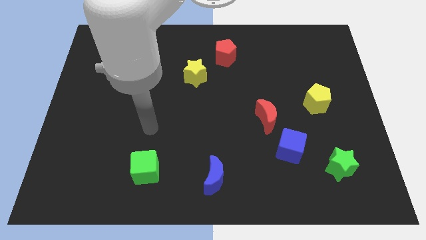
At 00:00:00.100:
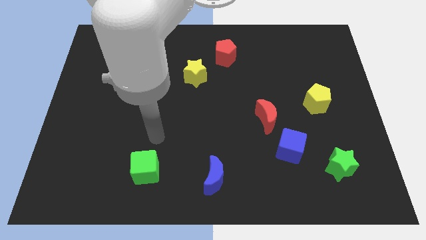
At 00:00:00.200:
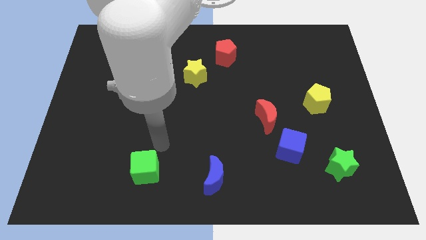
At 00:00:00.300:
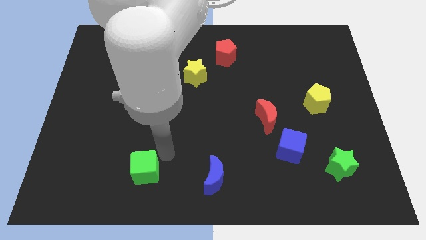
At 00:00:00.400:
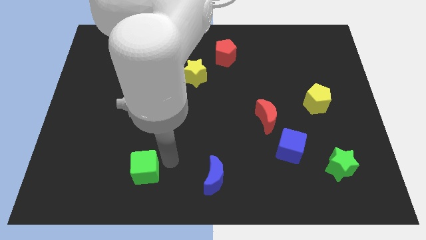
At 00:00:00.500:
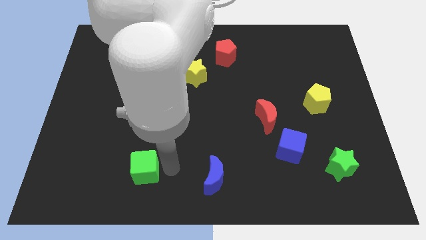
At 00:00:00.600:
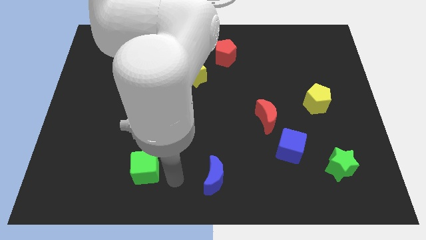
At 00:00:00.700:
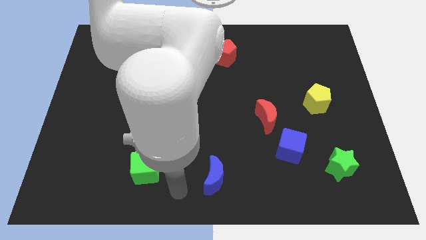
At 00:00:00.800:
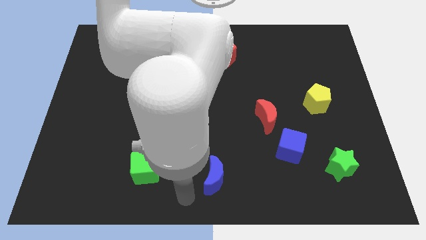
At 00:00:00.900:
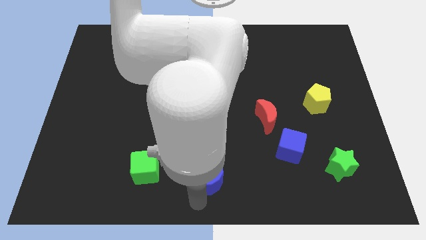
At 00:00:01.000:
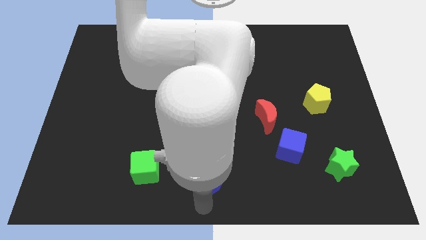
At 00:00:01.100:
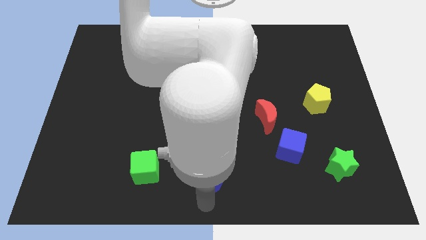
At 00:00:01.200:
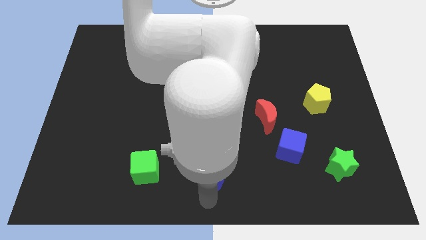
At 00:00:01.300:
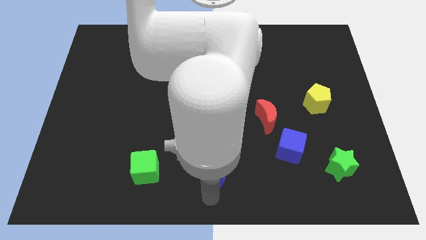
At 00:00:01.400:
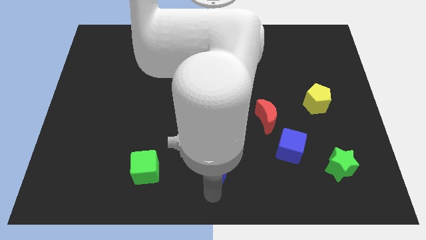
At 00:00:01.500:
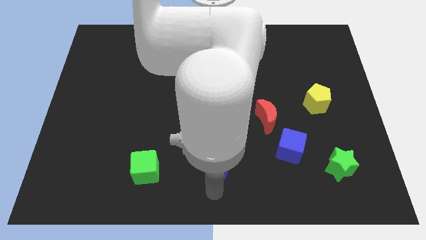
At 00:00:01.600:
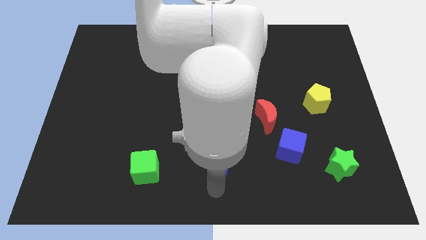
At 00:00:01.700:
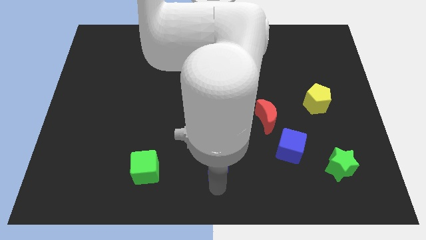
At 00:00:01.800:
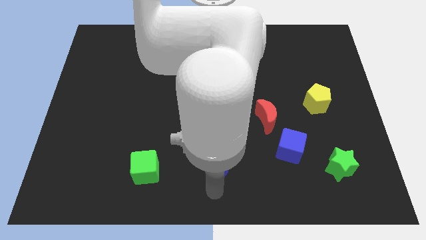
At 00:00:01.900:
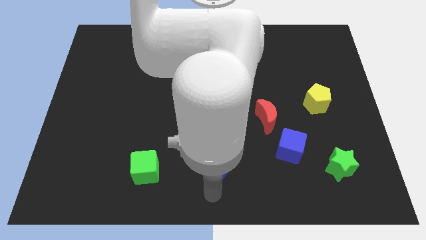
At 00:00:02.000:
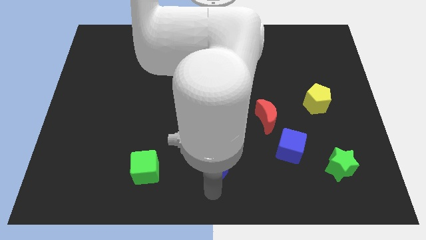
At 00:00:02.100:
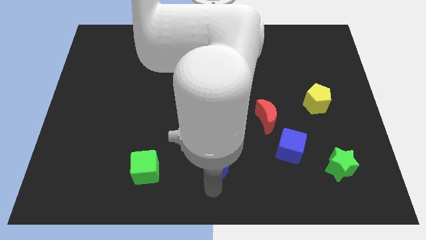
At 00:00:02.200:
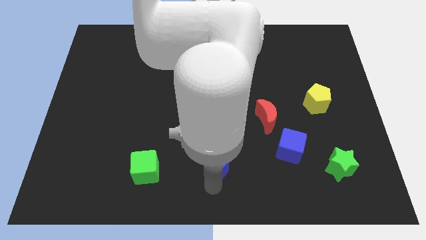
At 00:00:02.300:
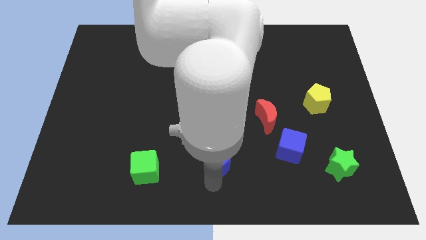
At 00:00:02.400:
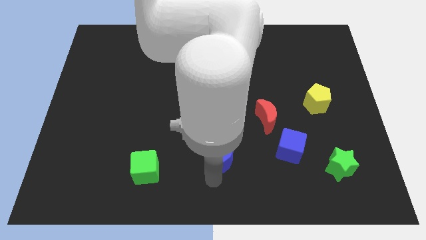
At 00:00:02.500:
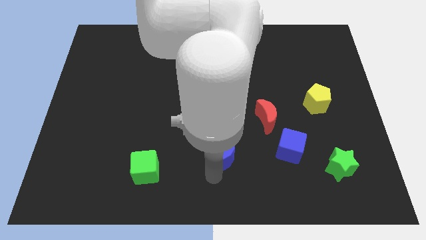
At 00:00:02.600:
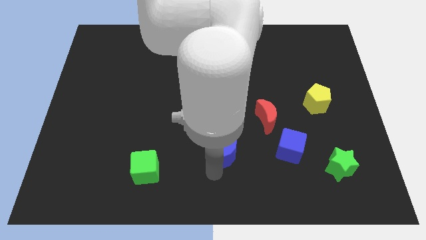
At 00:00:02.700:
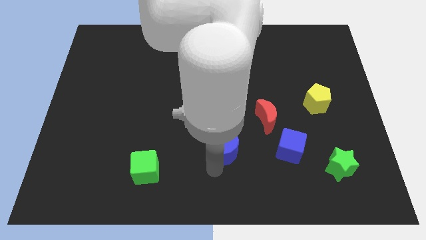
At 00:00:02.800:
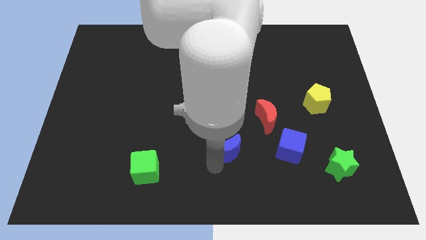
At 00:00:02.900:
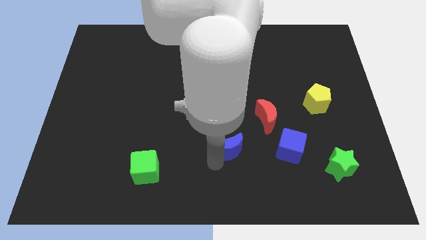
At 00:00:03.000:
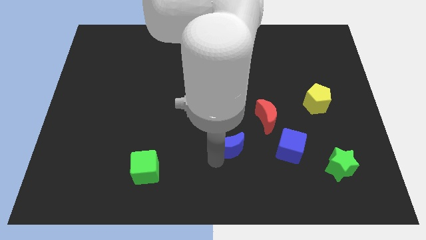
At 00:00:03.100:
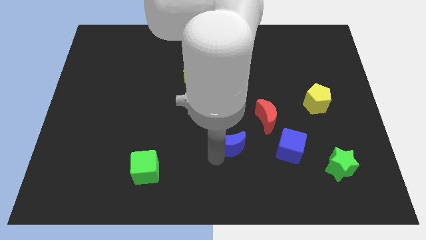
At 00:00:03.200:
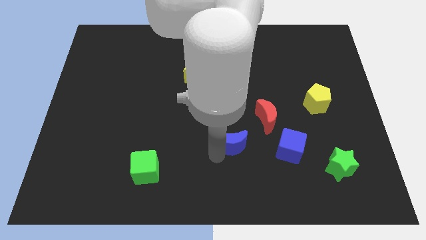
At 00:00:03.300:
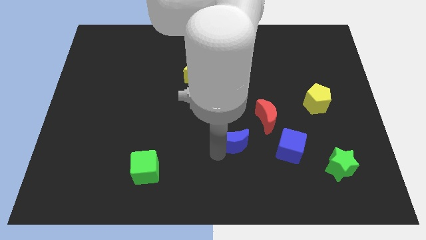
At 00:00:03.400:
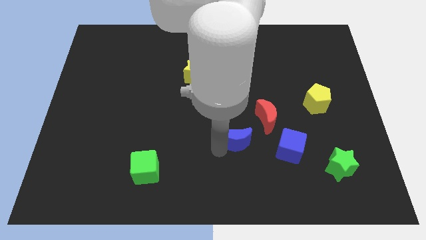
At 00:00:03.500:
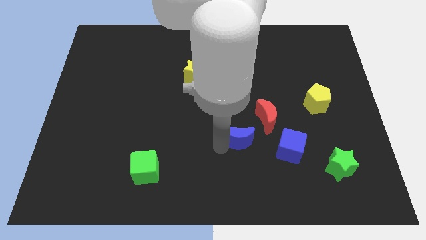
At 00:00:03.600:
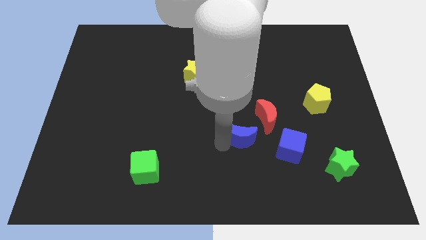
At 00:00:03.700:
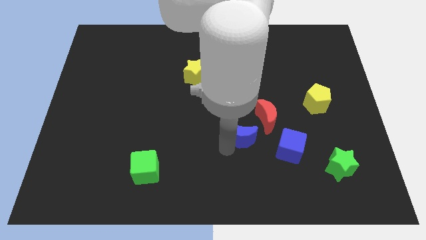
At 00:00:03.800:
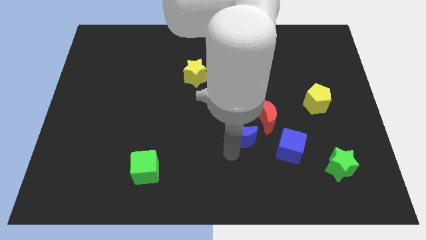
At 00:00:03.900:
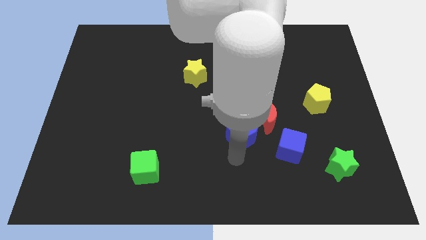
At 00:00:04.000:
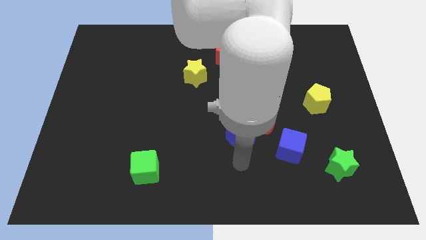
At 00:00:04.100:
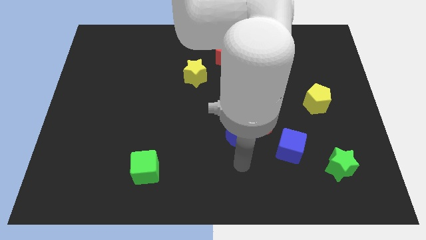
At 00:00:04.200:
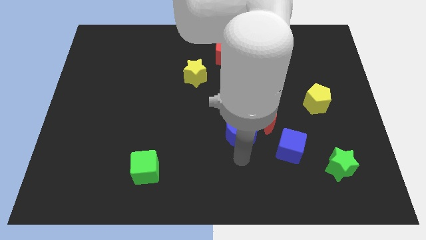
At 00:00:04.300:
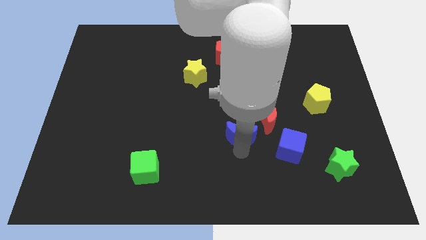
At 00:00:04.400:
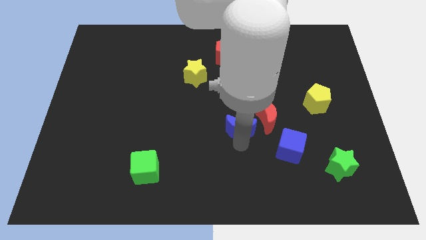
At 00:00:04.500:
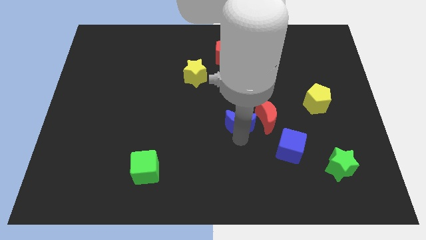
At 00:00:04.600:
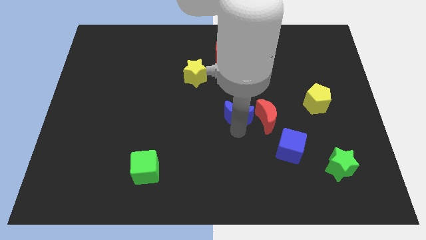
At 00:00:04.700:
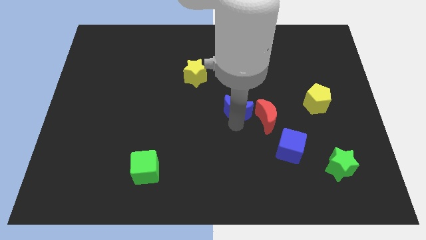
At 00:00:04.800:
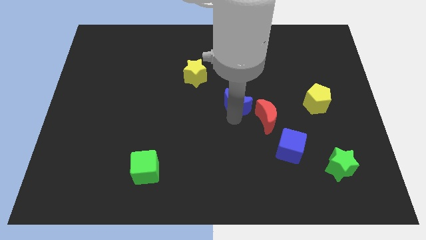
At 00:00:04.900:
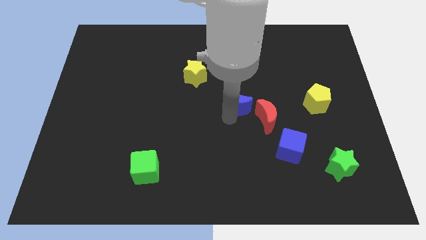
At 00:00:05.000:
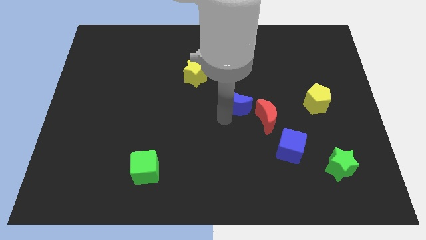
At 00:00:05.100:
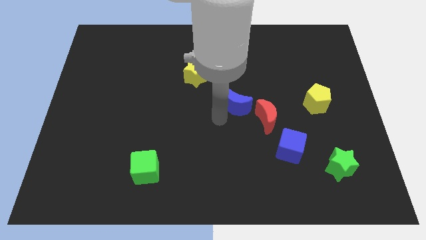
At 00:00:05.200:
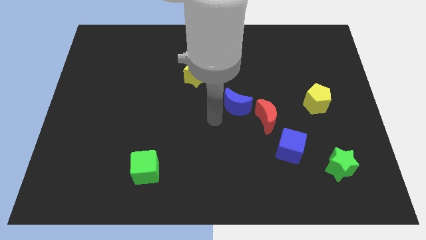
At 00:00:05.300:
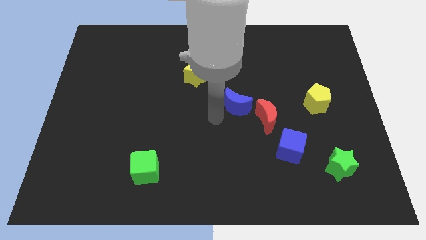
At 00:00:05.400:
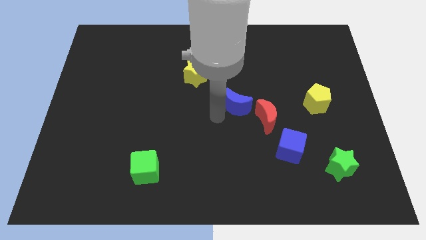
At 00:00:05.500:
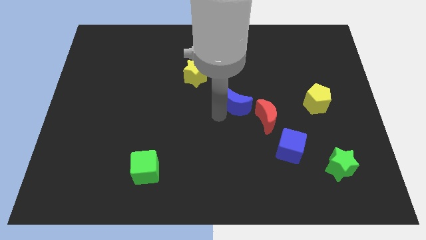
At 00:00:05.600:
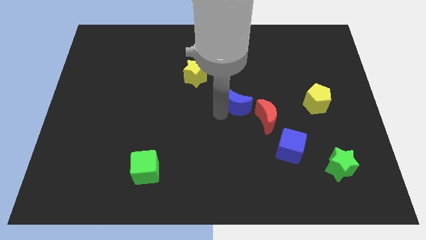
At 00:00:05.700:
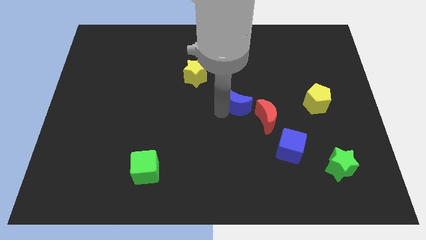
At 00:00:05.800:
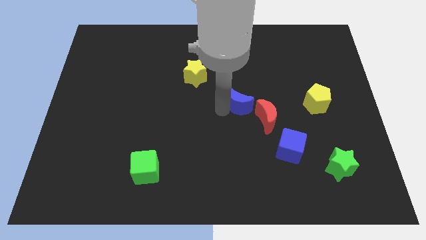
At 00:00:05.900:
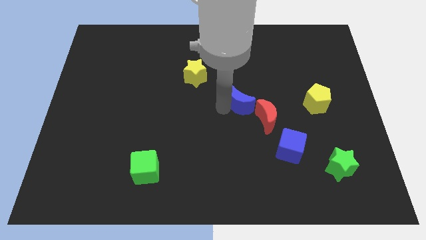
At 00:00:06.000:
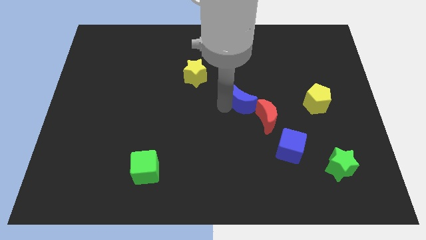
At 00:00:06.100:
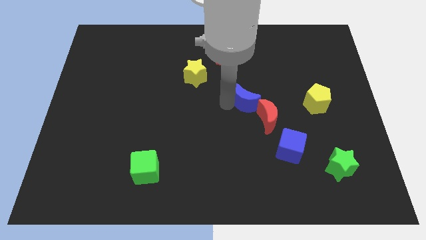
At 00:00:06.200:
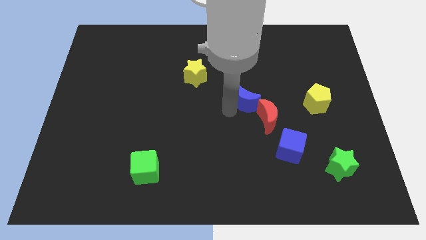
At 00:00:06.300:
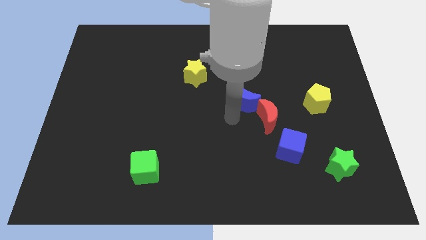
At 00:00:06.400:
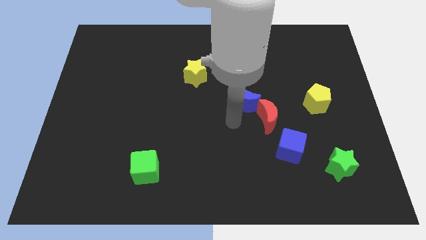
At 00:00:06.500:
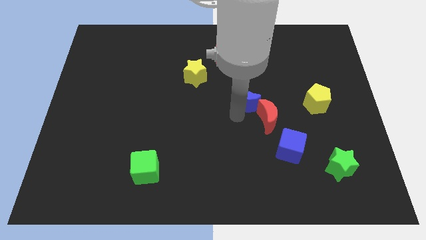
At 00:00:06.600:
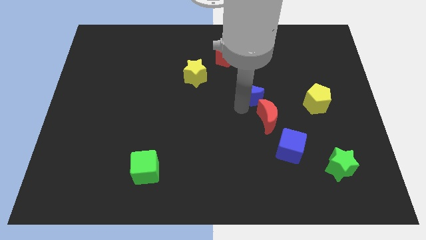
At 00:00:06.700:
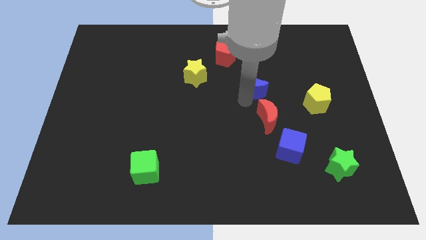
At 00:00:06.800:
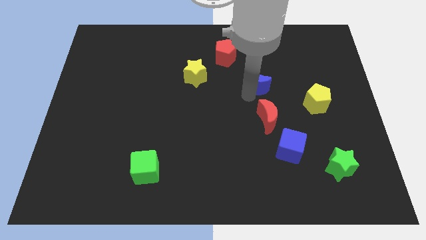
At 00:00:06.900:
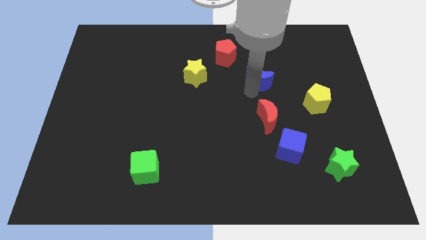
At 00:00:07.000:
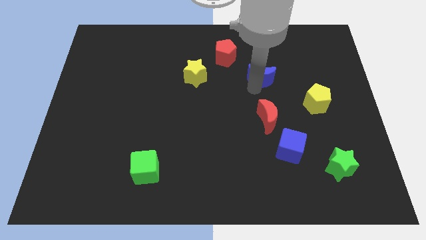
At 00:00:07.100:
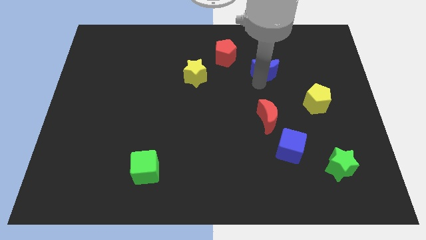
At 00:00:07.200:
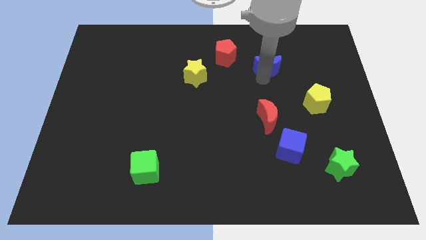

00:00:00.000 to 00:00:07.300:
slide the blue moon just right of the red pentagon
